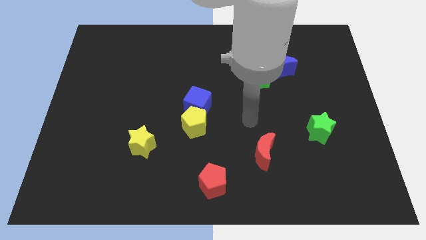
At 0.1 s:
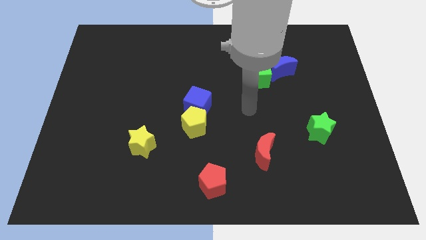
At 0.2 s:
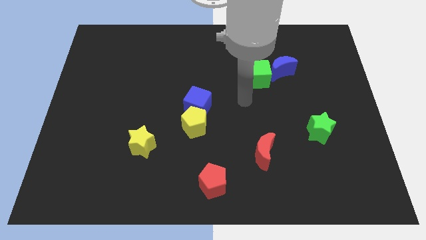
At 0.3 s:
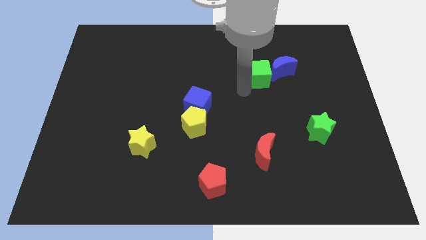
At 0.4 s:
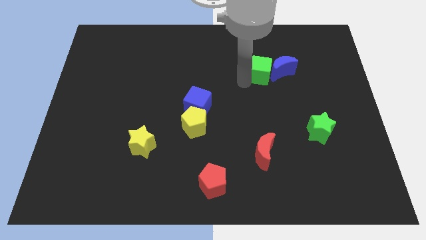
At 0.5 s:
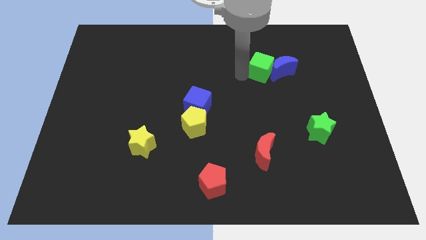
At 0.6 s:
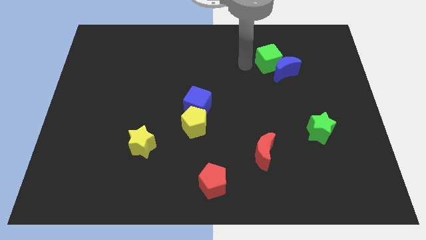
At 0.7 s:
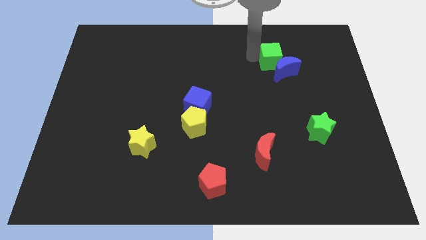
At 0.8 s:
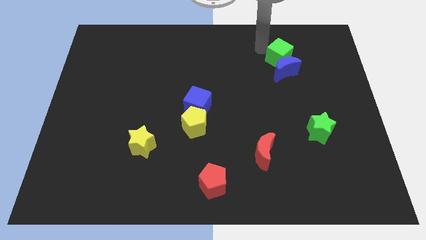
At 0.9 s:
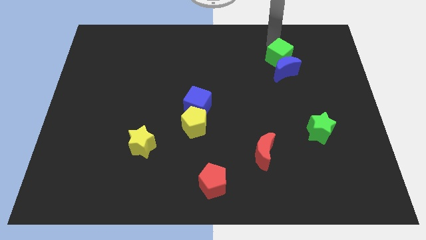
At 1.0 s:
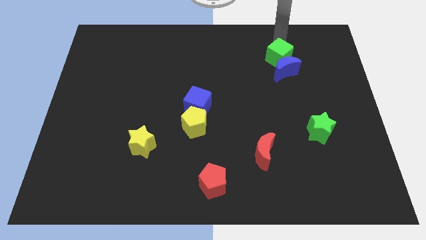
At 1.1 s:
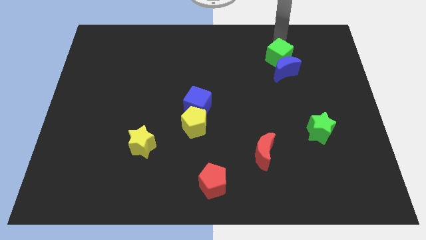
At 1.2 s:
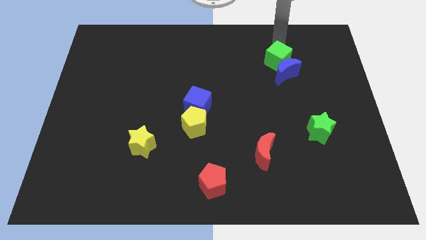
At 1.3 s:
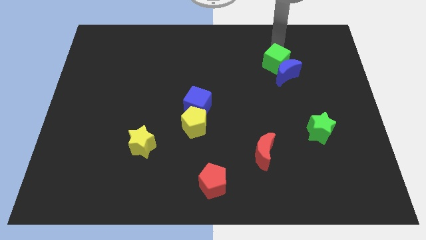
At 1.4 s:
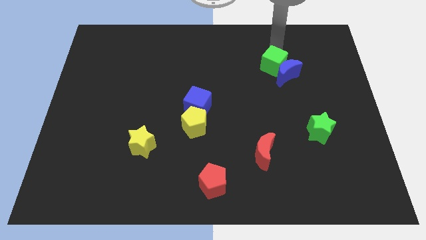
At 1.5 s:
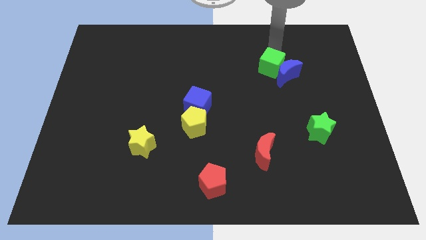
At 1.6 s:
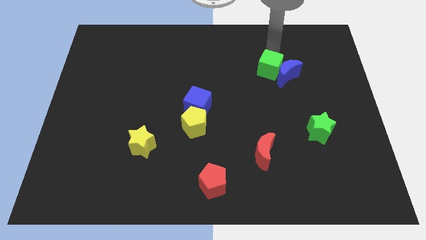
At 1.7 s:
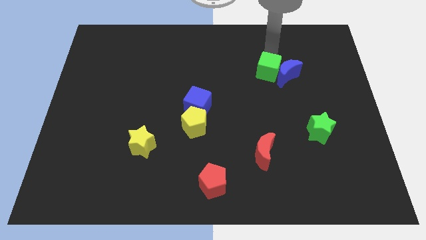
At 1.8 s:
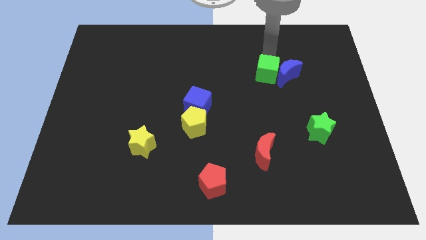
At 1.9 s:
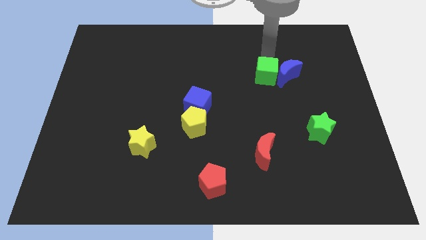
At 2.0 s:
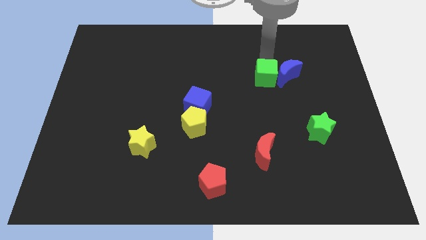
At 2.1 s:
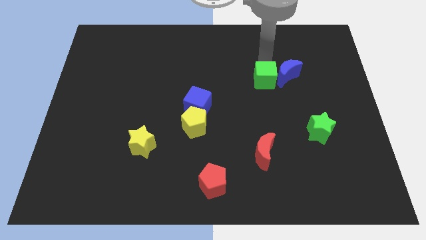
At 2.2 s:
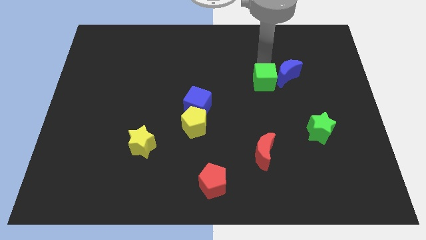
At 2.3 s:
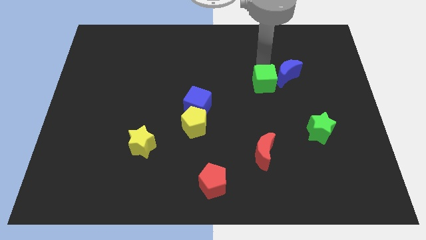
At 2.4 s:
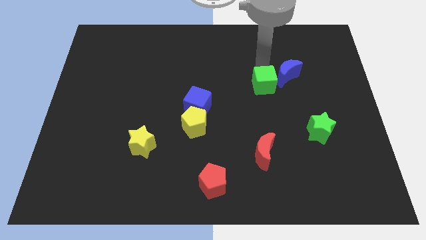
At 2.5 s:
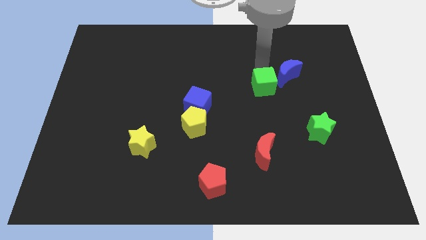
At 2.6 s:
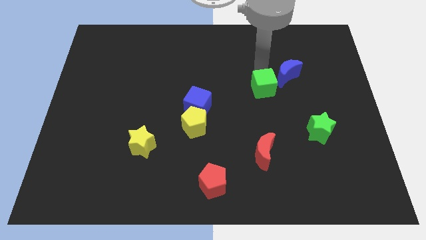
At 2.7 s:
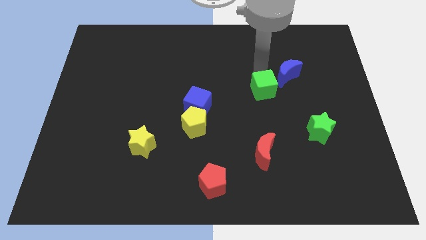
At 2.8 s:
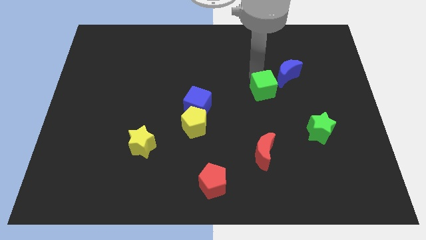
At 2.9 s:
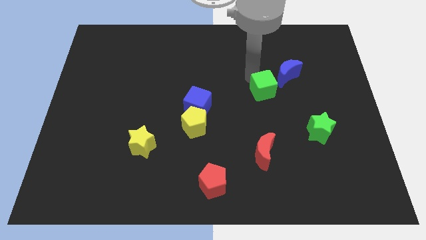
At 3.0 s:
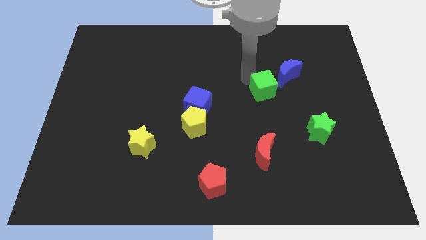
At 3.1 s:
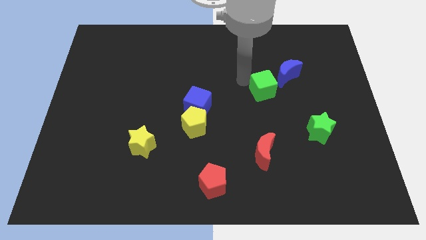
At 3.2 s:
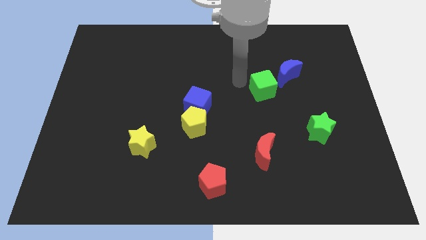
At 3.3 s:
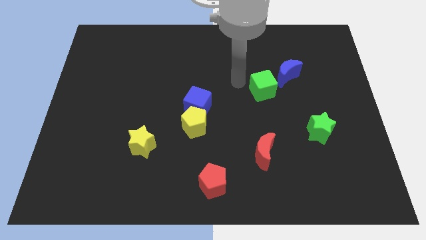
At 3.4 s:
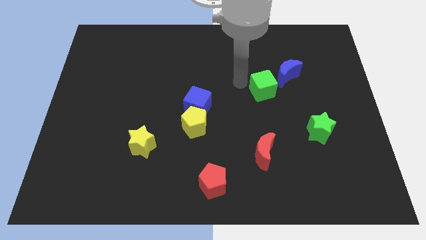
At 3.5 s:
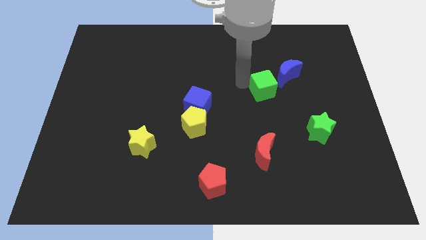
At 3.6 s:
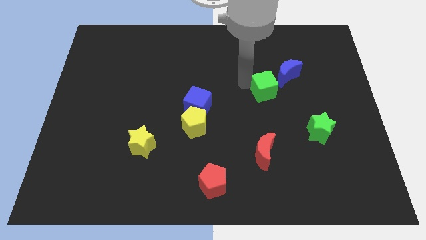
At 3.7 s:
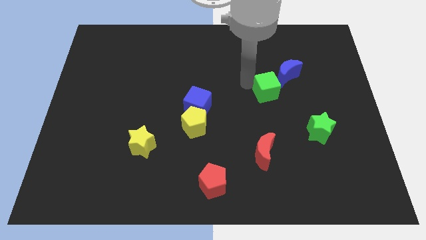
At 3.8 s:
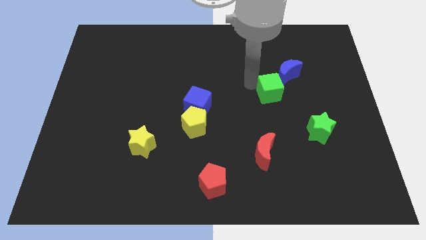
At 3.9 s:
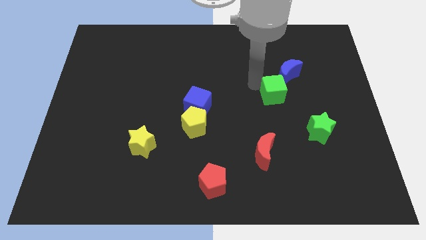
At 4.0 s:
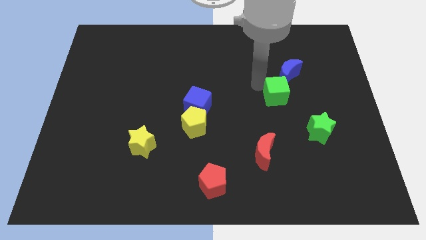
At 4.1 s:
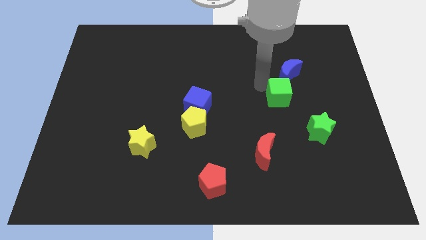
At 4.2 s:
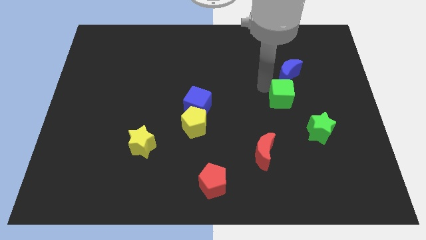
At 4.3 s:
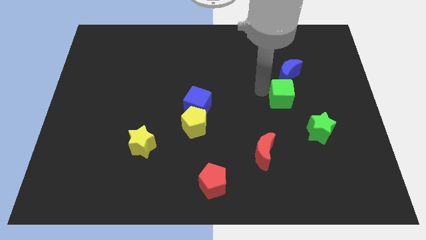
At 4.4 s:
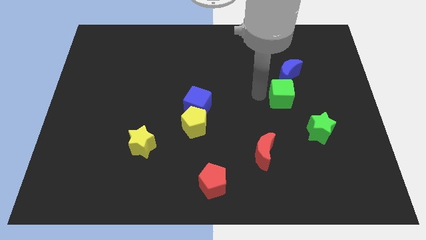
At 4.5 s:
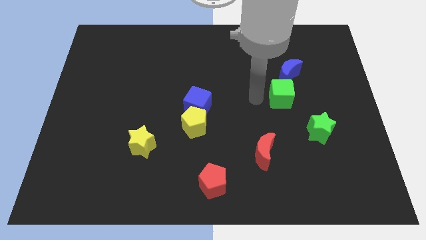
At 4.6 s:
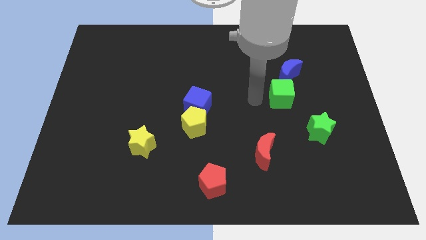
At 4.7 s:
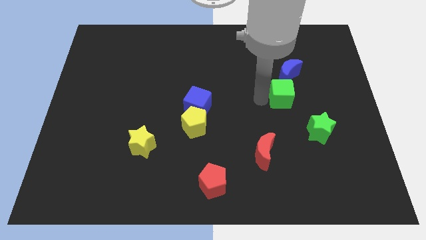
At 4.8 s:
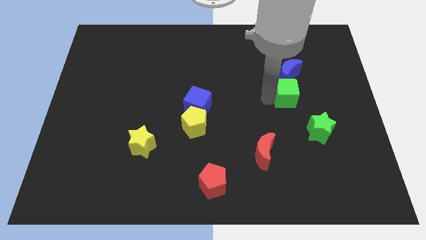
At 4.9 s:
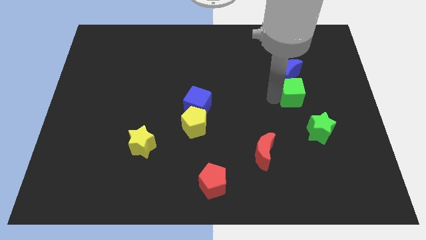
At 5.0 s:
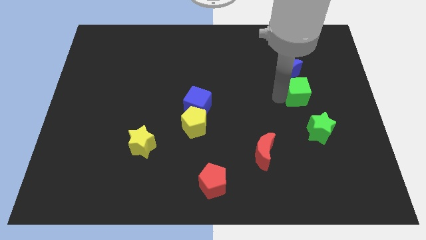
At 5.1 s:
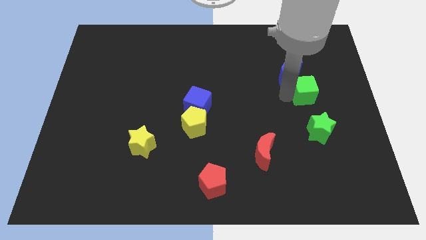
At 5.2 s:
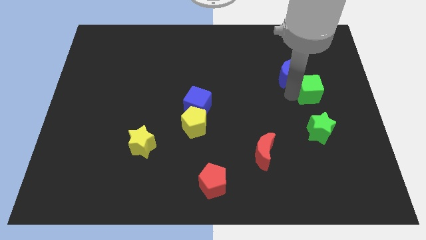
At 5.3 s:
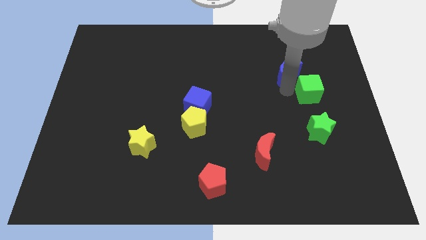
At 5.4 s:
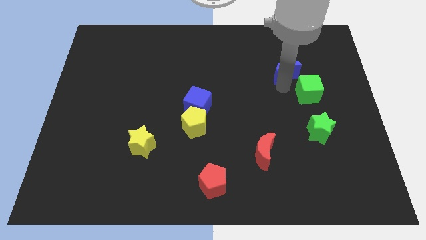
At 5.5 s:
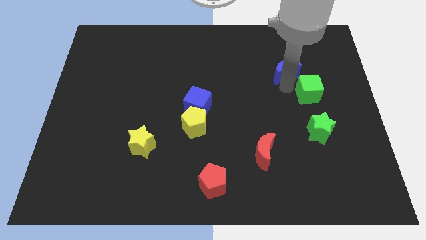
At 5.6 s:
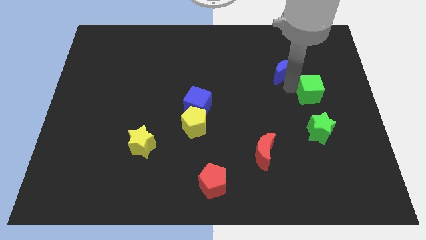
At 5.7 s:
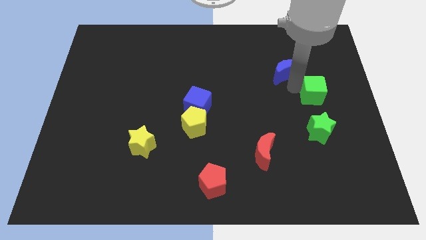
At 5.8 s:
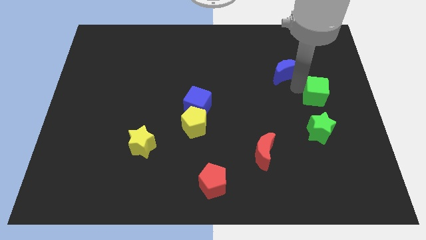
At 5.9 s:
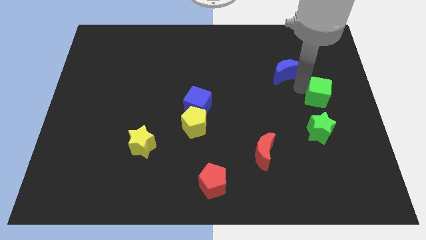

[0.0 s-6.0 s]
move the green cube to the right side

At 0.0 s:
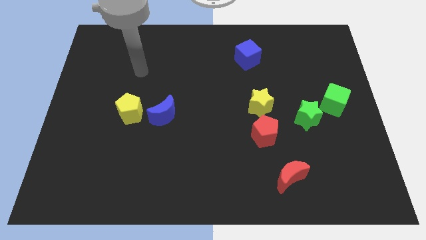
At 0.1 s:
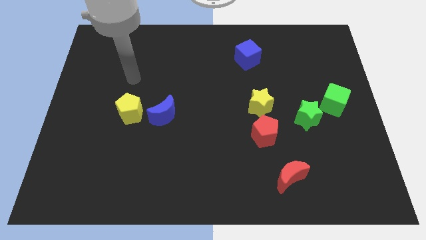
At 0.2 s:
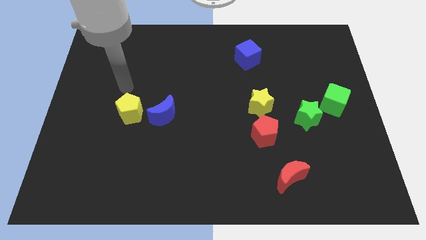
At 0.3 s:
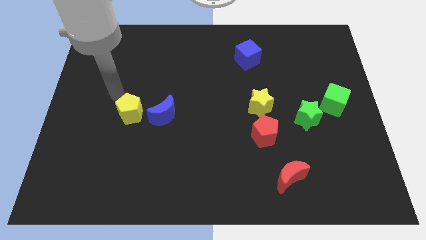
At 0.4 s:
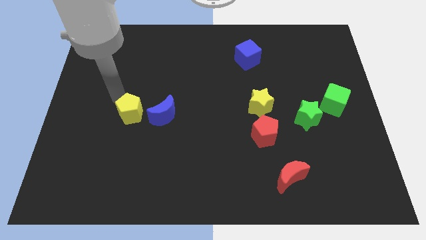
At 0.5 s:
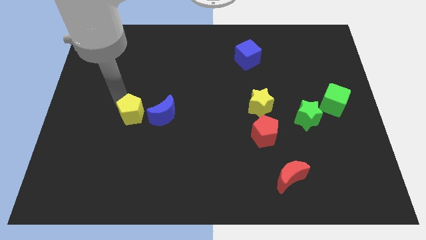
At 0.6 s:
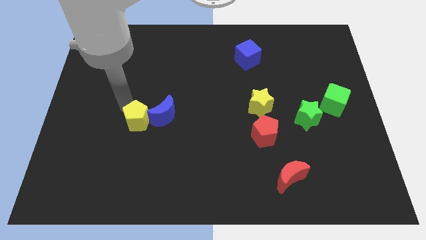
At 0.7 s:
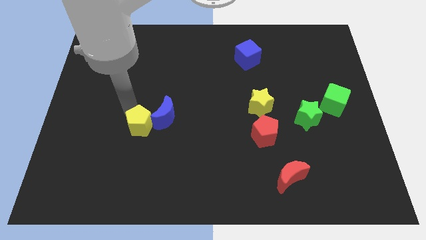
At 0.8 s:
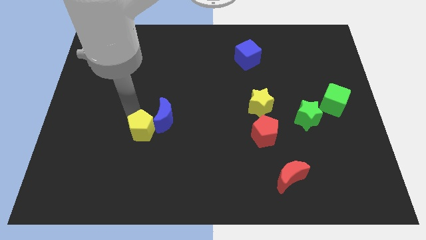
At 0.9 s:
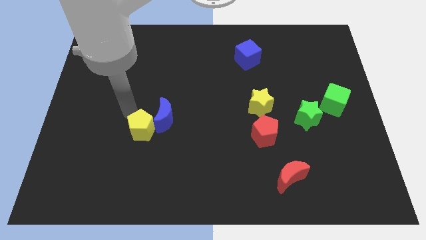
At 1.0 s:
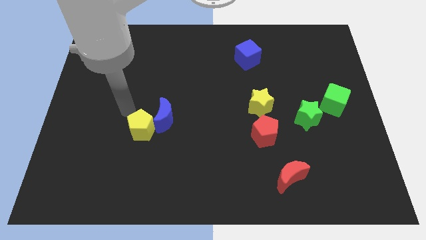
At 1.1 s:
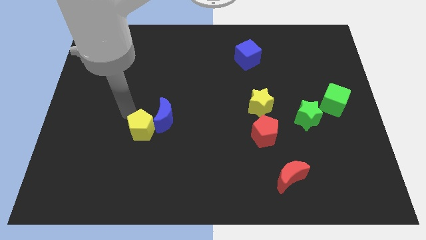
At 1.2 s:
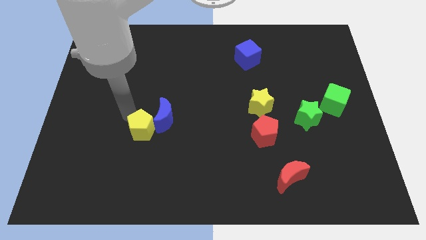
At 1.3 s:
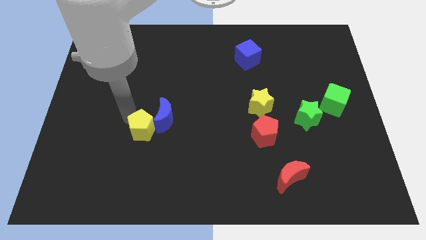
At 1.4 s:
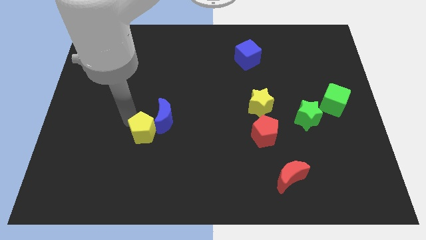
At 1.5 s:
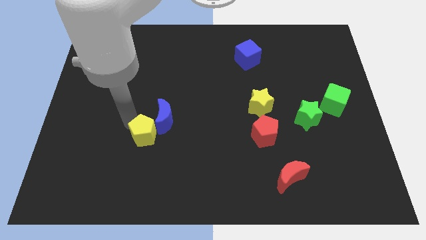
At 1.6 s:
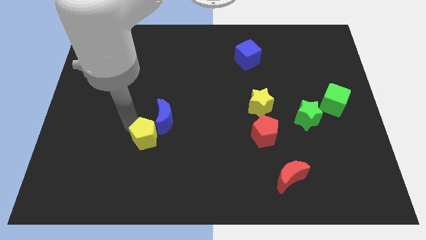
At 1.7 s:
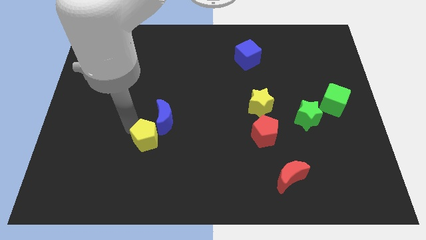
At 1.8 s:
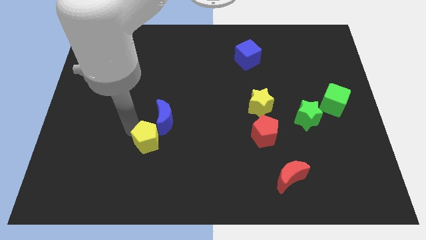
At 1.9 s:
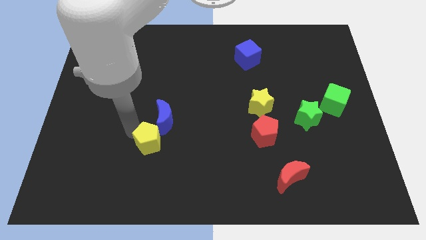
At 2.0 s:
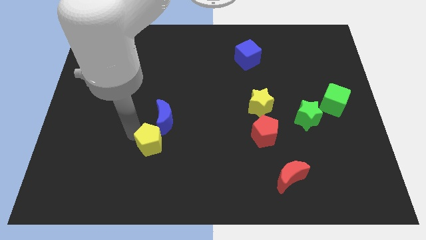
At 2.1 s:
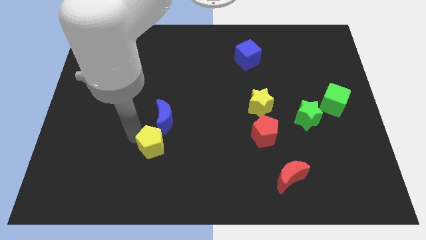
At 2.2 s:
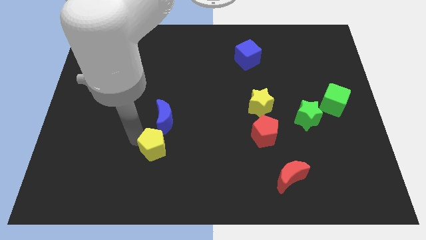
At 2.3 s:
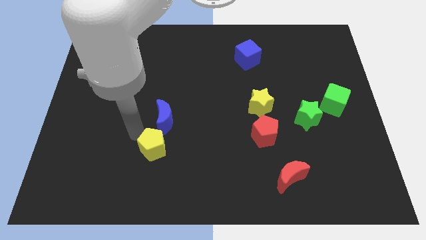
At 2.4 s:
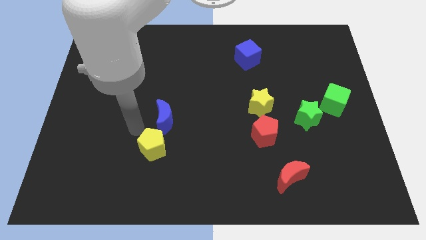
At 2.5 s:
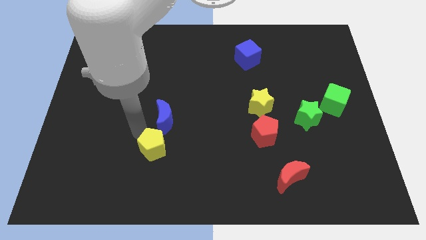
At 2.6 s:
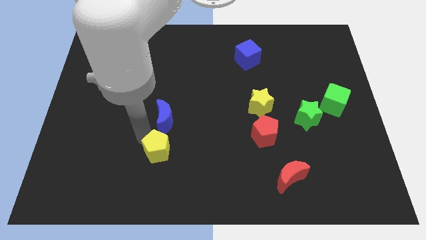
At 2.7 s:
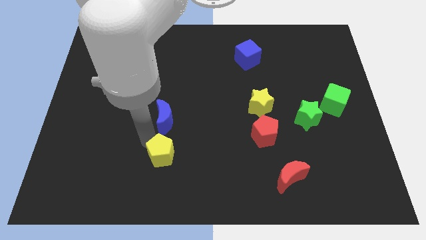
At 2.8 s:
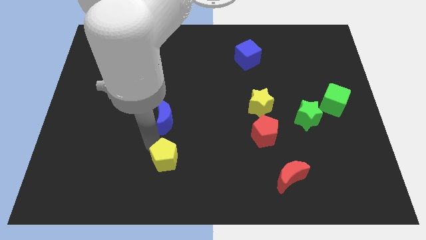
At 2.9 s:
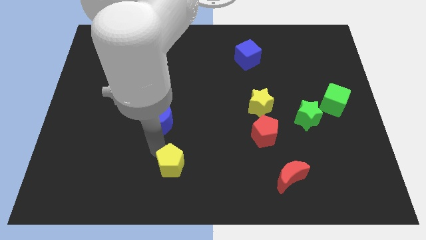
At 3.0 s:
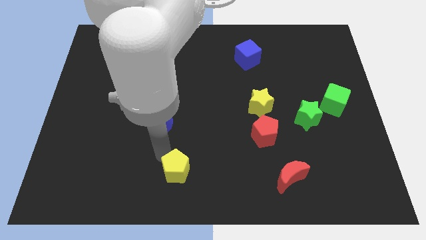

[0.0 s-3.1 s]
put the yellow pentagon to the bottom
